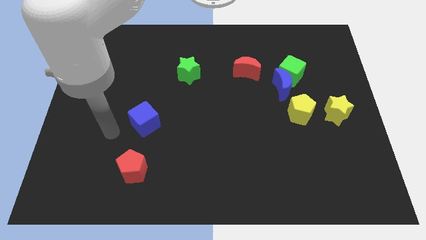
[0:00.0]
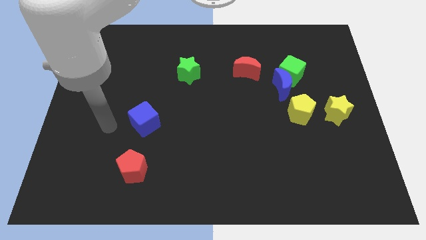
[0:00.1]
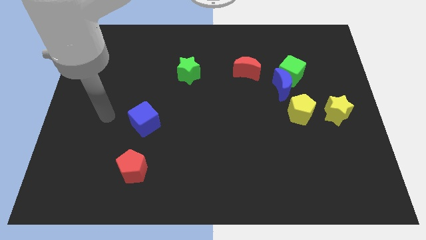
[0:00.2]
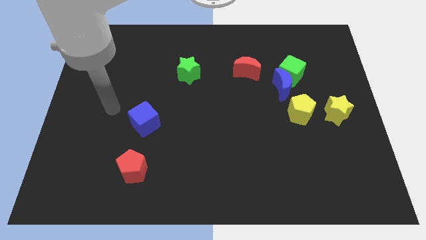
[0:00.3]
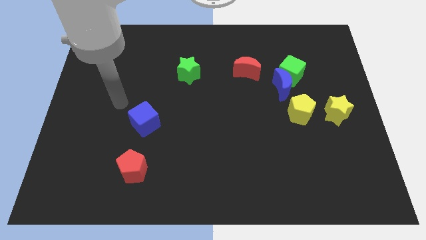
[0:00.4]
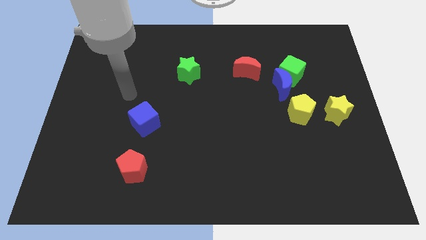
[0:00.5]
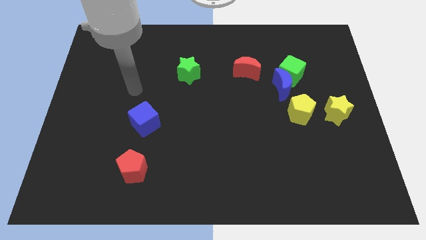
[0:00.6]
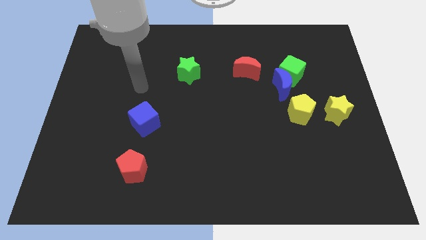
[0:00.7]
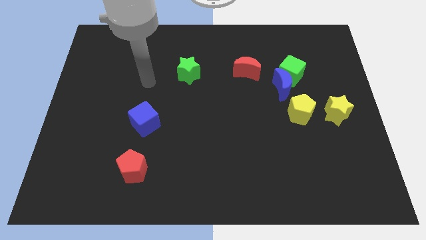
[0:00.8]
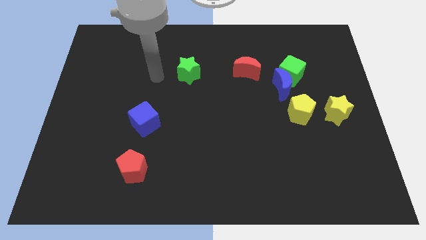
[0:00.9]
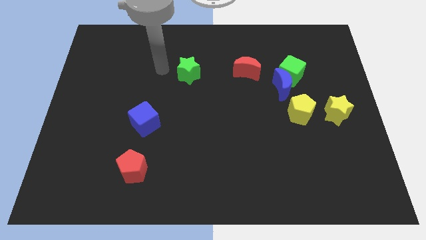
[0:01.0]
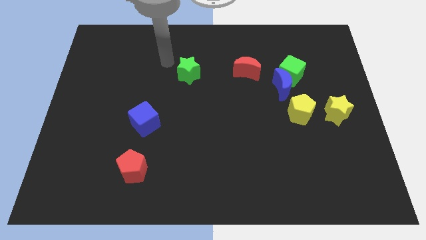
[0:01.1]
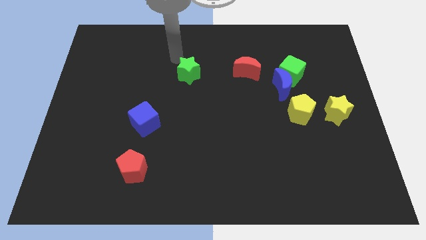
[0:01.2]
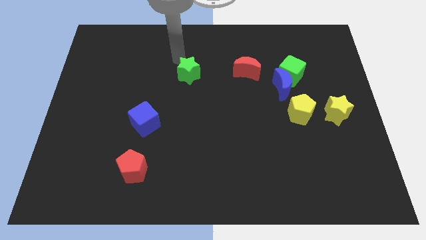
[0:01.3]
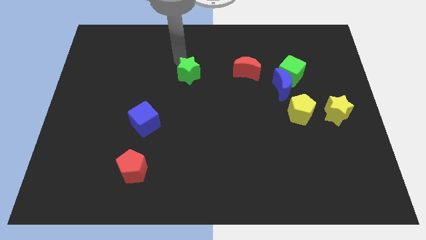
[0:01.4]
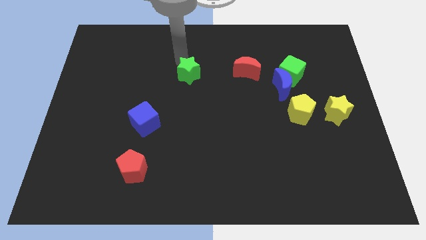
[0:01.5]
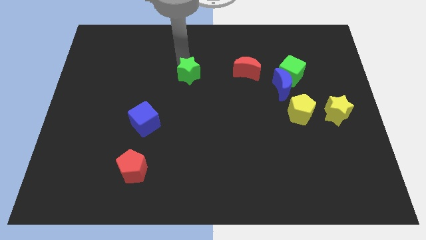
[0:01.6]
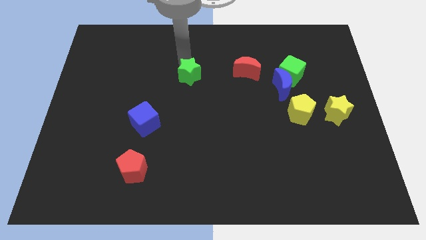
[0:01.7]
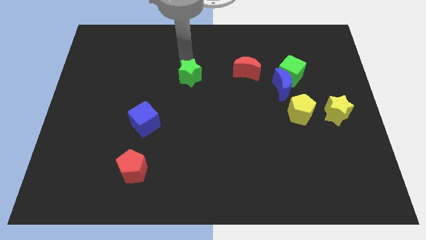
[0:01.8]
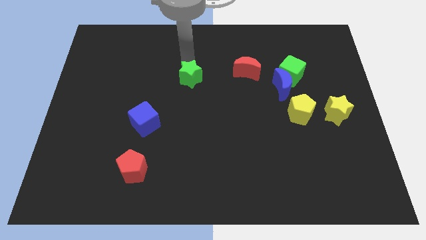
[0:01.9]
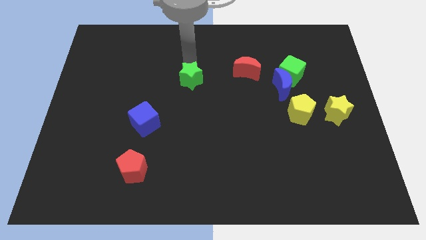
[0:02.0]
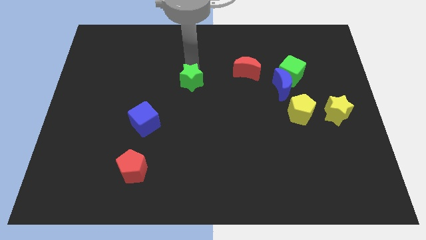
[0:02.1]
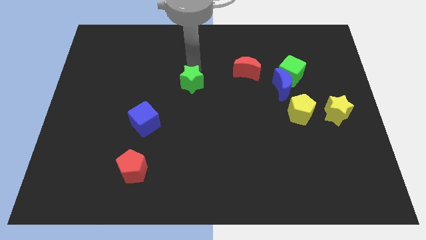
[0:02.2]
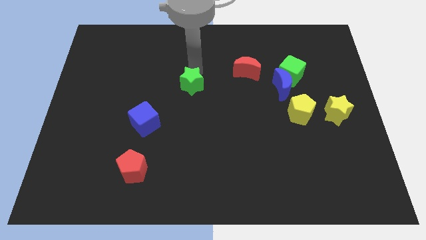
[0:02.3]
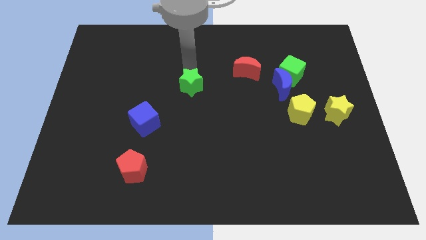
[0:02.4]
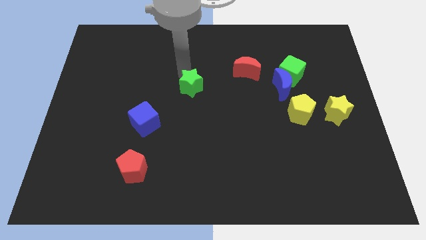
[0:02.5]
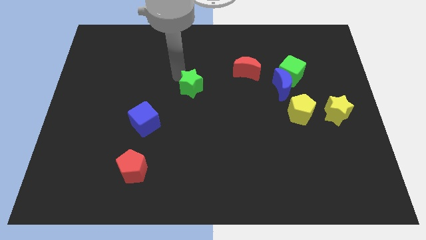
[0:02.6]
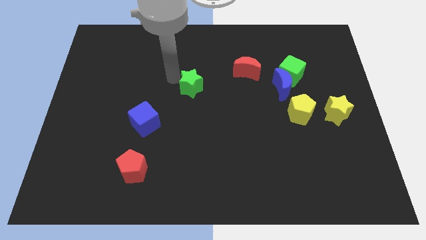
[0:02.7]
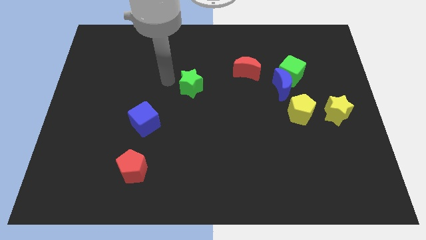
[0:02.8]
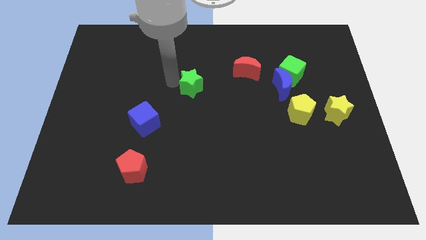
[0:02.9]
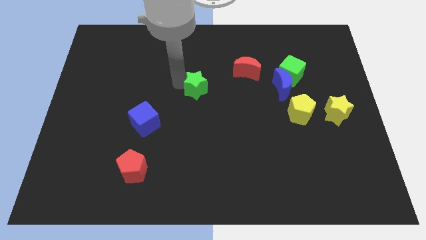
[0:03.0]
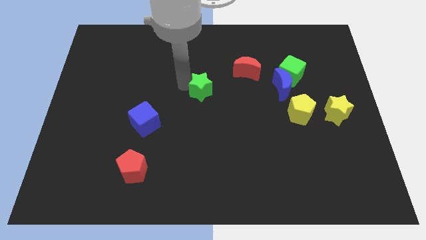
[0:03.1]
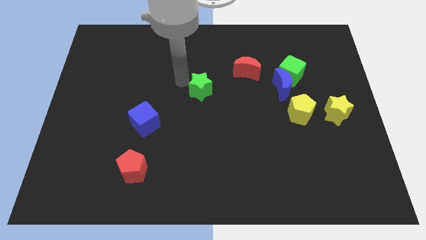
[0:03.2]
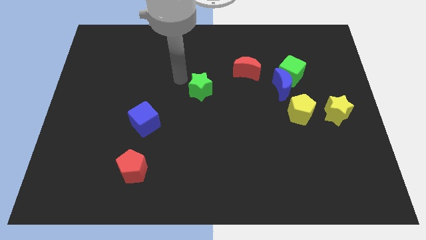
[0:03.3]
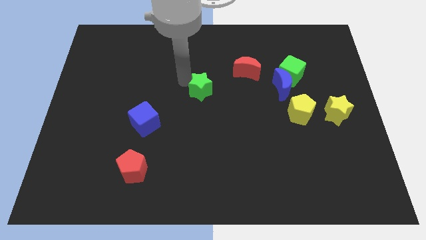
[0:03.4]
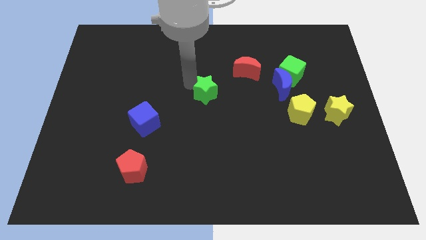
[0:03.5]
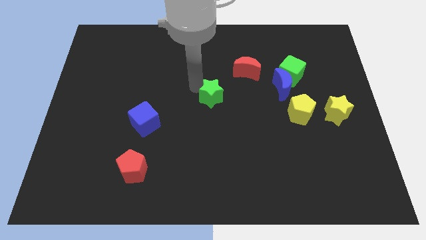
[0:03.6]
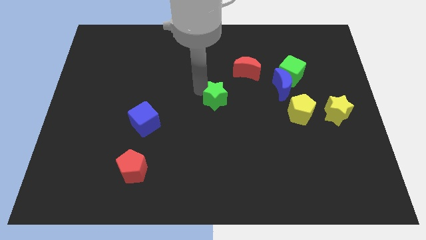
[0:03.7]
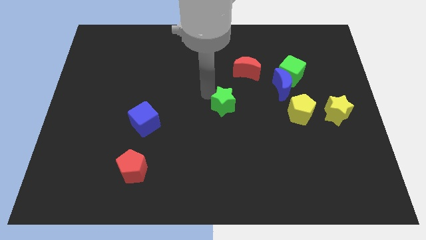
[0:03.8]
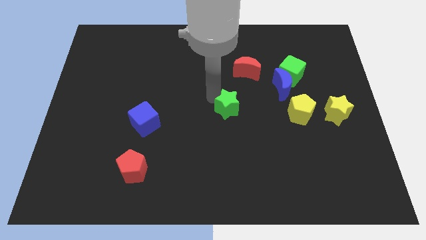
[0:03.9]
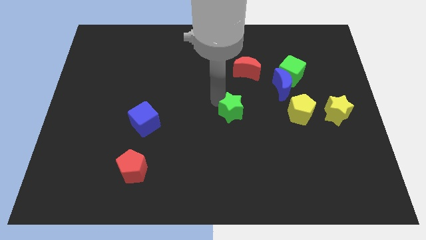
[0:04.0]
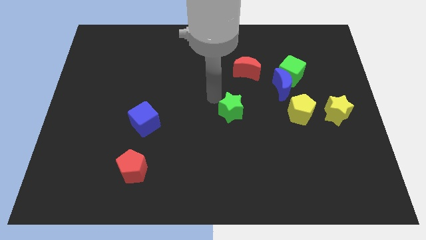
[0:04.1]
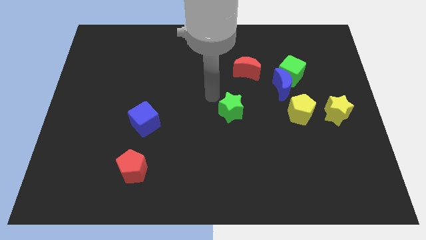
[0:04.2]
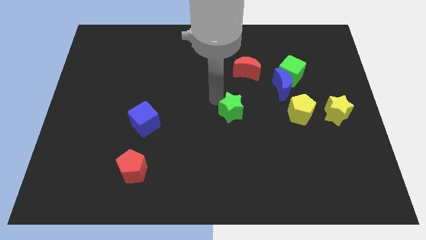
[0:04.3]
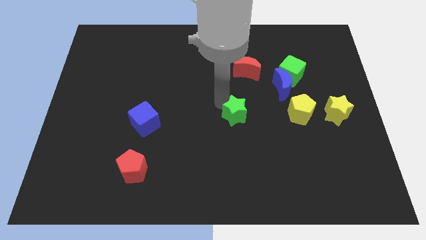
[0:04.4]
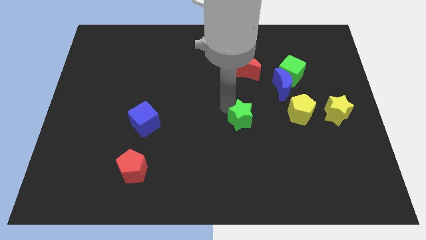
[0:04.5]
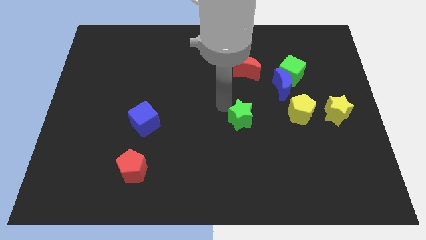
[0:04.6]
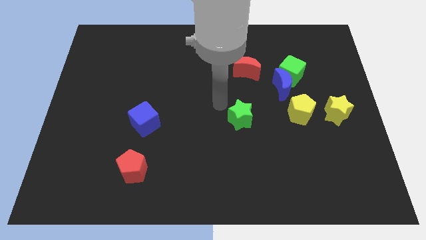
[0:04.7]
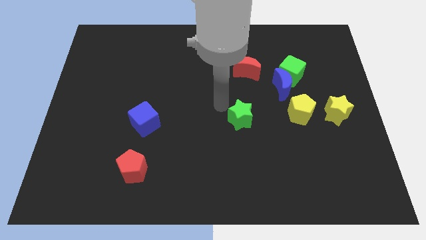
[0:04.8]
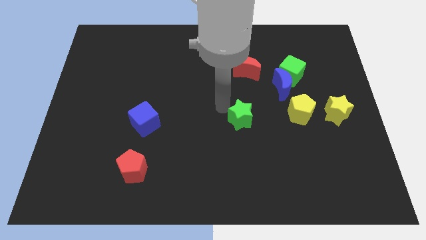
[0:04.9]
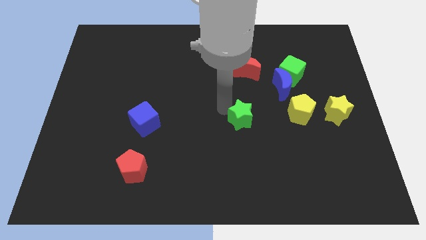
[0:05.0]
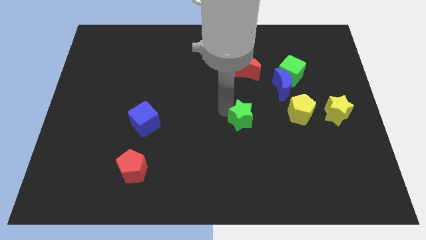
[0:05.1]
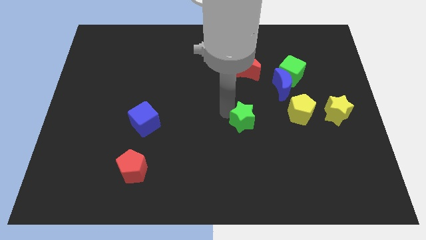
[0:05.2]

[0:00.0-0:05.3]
move the green star downwards and to the right

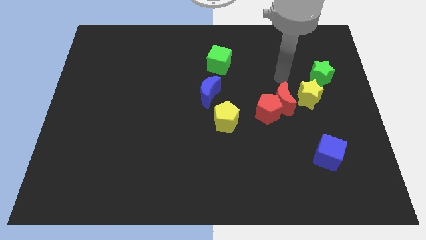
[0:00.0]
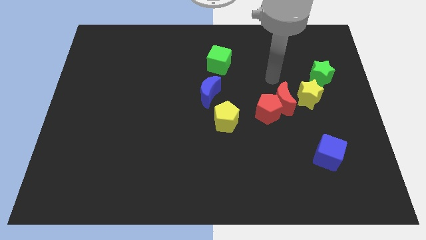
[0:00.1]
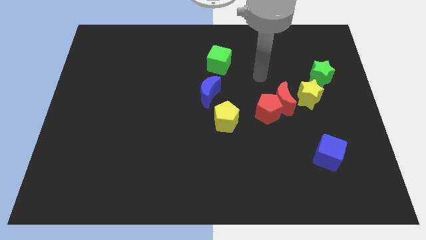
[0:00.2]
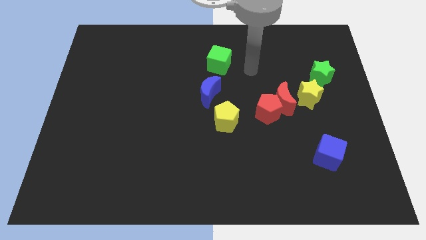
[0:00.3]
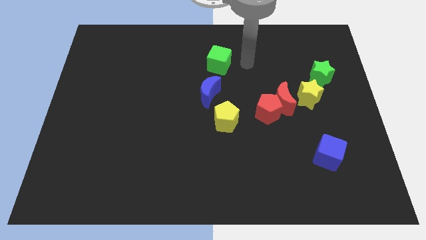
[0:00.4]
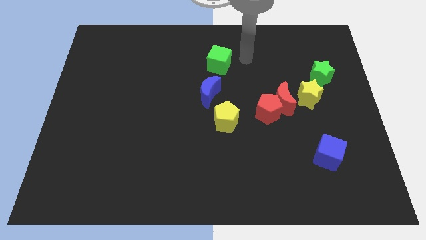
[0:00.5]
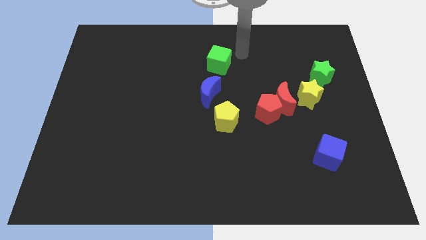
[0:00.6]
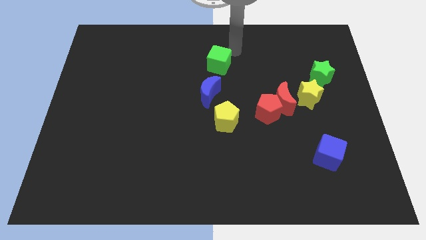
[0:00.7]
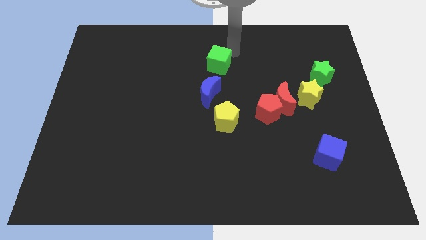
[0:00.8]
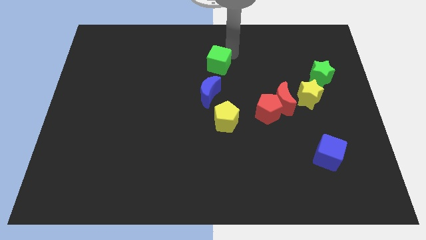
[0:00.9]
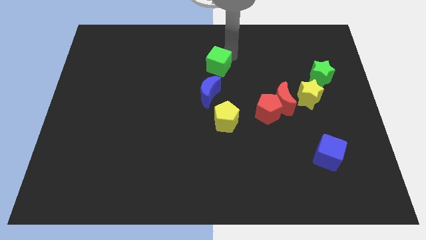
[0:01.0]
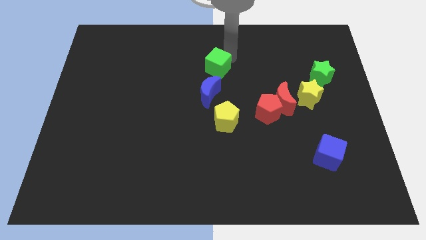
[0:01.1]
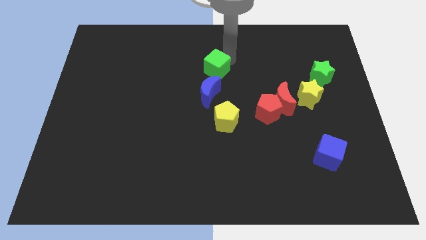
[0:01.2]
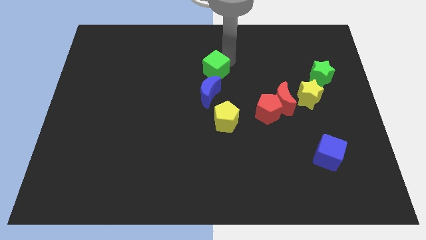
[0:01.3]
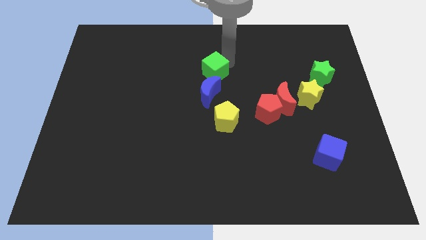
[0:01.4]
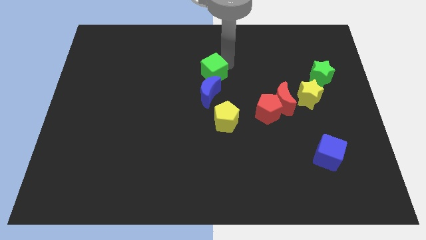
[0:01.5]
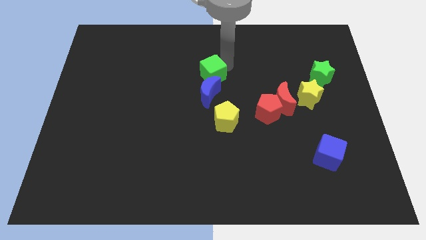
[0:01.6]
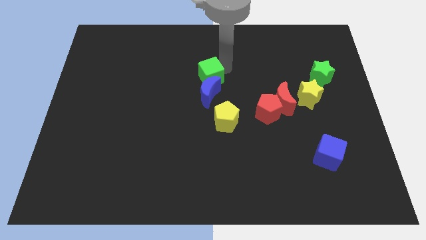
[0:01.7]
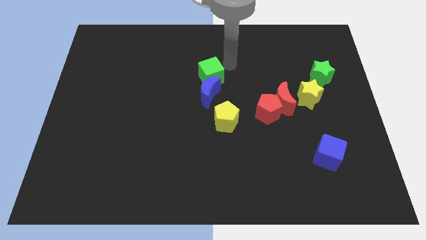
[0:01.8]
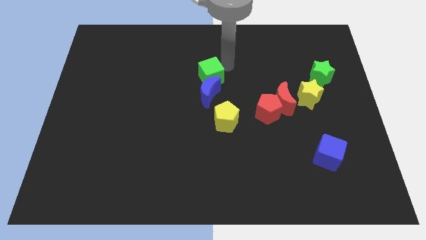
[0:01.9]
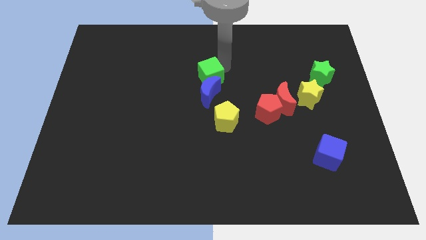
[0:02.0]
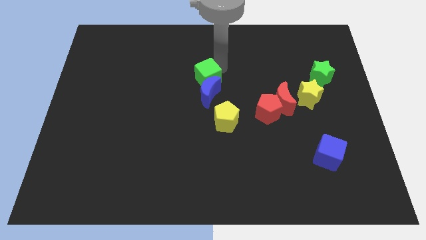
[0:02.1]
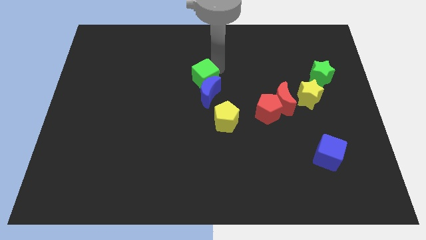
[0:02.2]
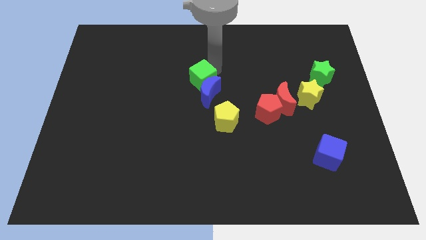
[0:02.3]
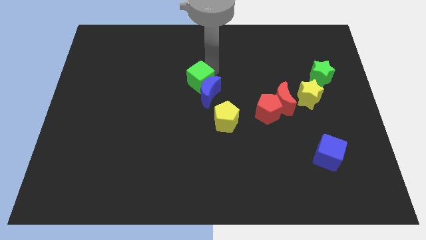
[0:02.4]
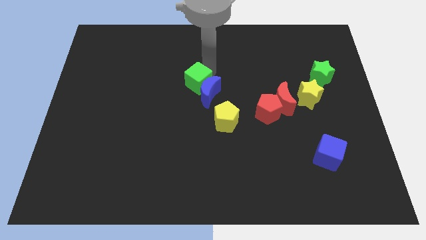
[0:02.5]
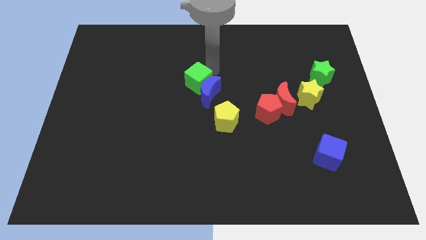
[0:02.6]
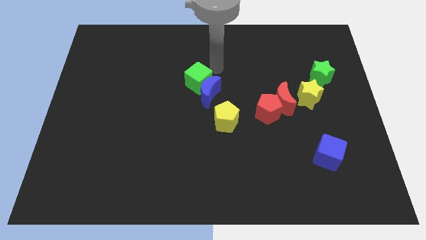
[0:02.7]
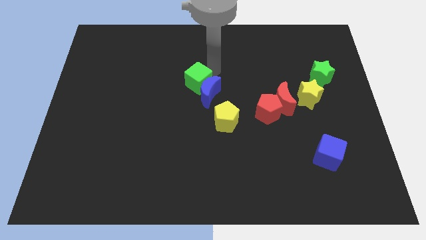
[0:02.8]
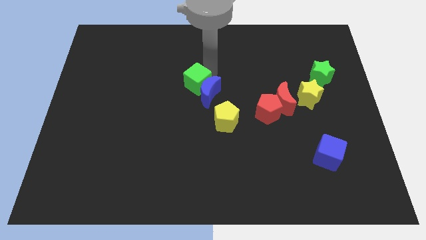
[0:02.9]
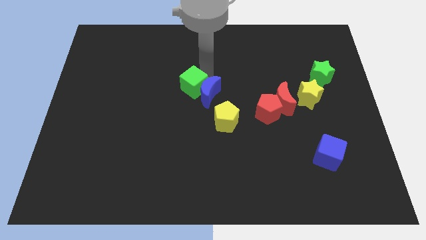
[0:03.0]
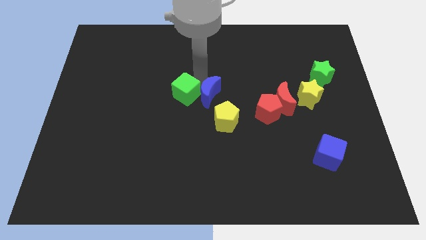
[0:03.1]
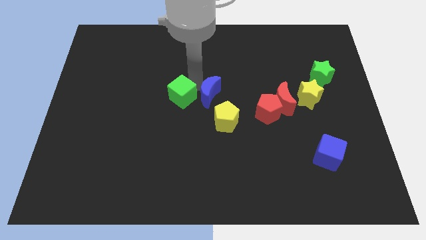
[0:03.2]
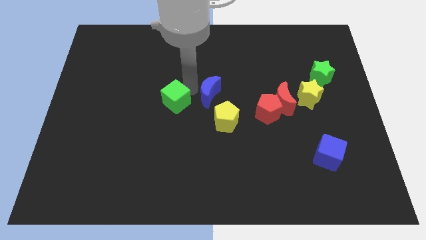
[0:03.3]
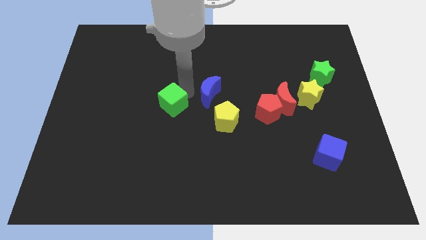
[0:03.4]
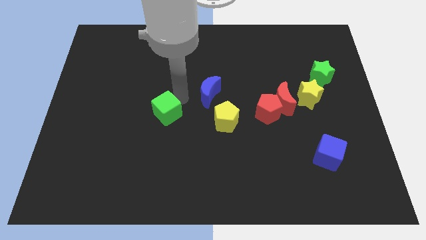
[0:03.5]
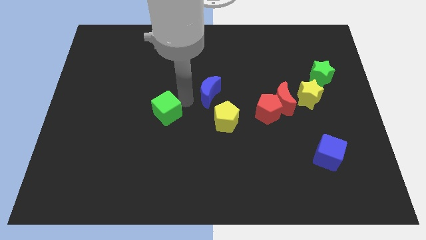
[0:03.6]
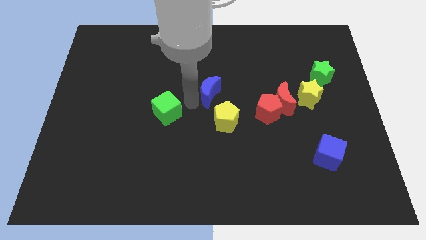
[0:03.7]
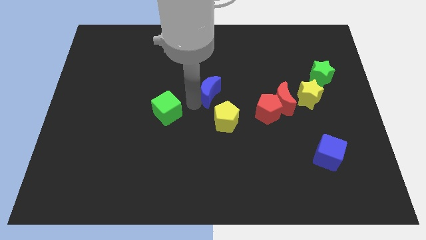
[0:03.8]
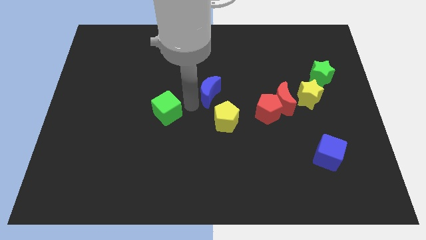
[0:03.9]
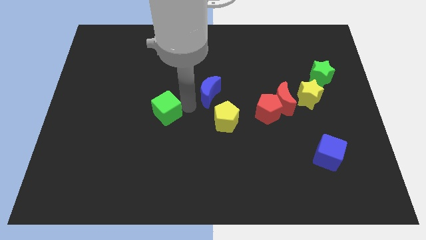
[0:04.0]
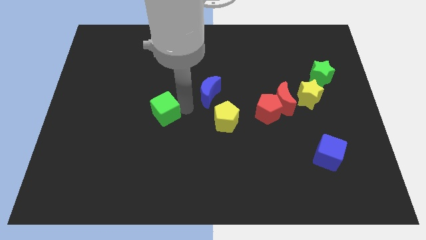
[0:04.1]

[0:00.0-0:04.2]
push the green cube downwards and to the left diagonally
